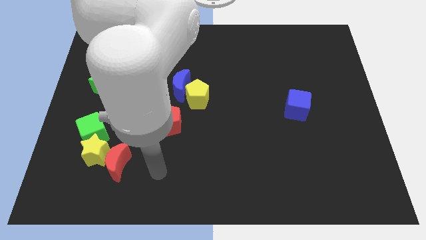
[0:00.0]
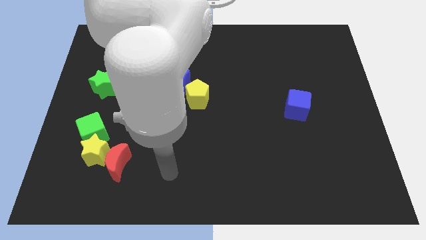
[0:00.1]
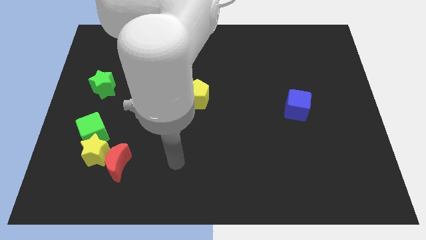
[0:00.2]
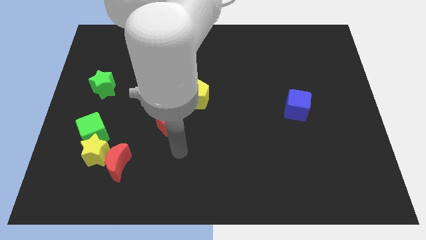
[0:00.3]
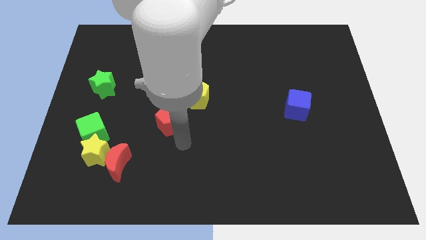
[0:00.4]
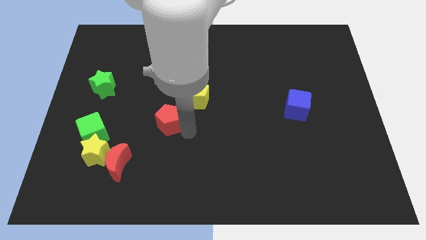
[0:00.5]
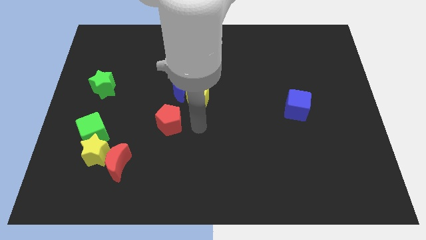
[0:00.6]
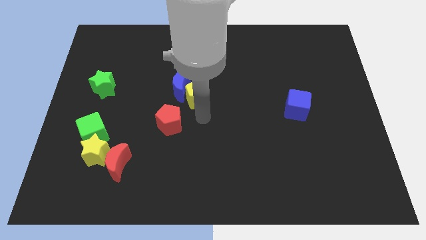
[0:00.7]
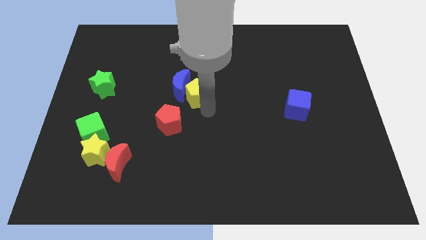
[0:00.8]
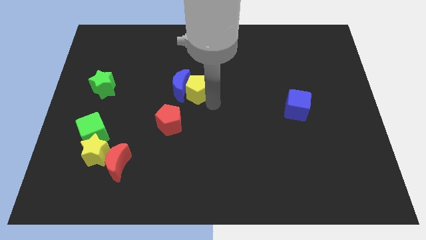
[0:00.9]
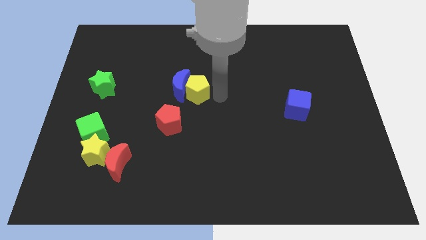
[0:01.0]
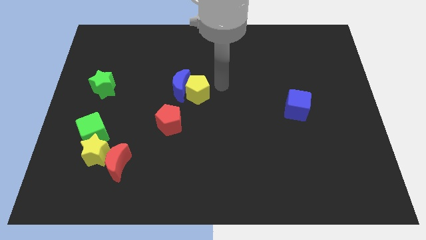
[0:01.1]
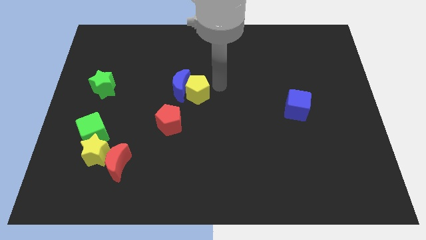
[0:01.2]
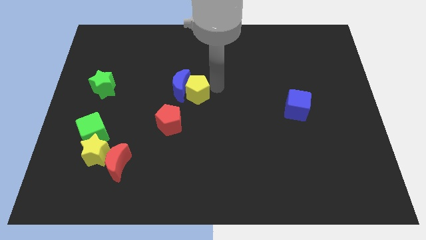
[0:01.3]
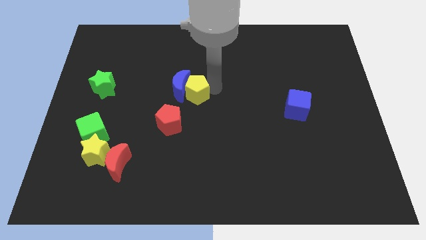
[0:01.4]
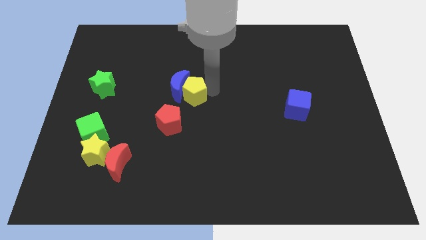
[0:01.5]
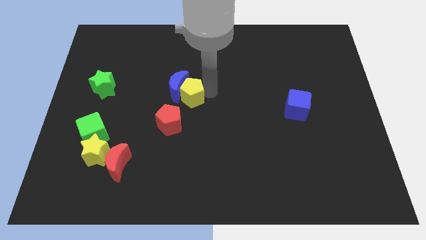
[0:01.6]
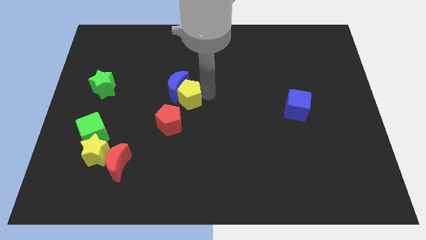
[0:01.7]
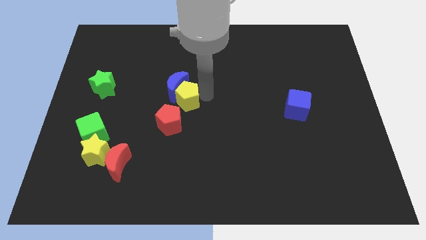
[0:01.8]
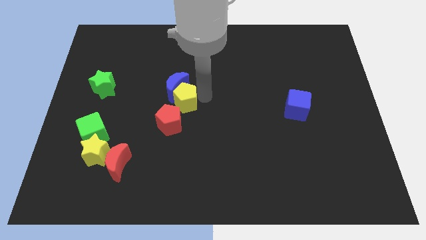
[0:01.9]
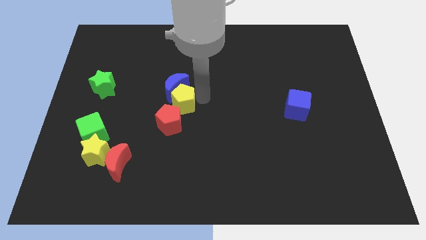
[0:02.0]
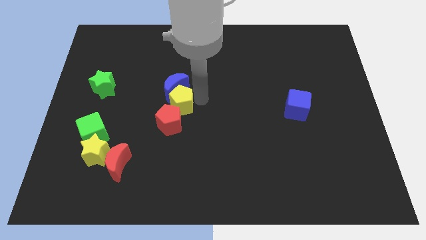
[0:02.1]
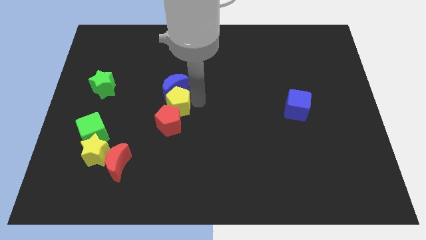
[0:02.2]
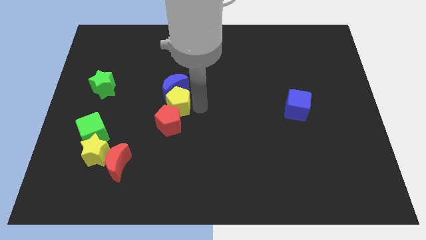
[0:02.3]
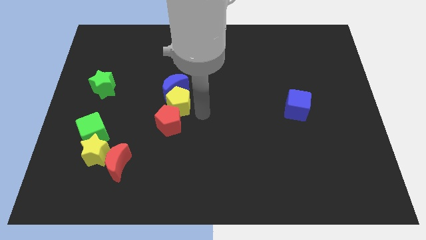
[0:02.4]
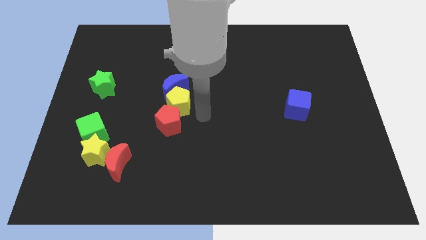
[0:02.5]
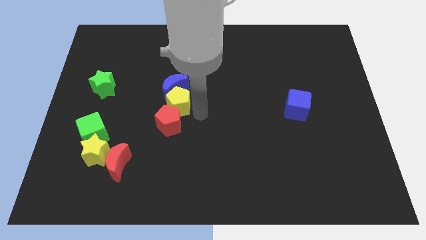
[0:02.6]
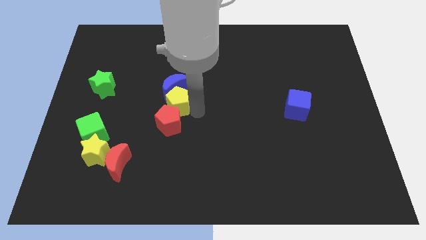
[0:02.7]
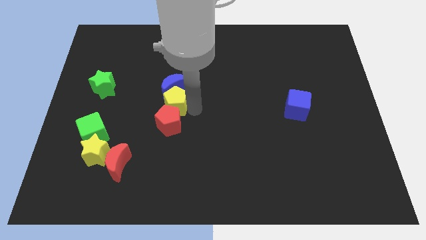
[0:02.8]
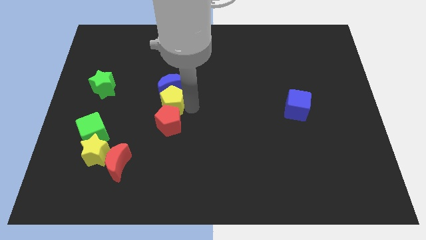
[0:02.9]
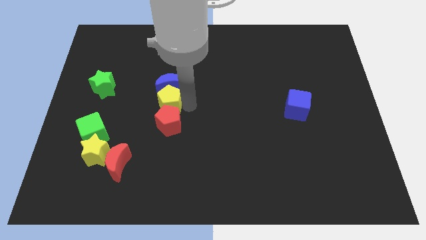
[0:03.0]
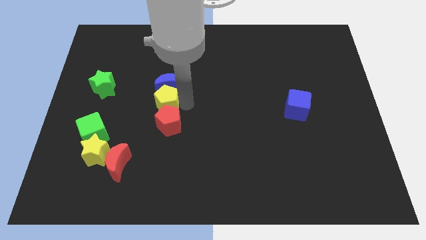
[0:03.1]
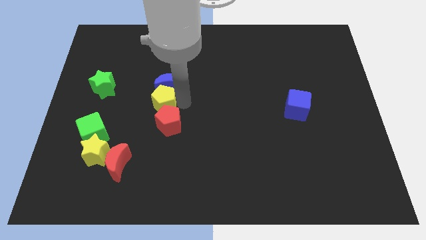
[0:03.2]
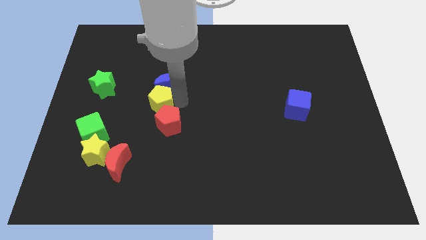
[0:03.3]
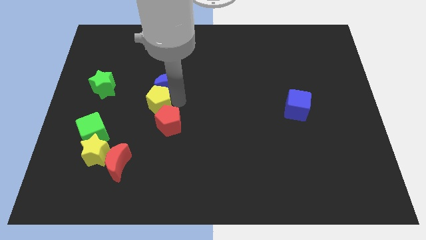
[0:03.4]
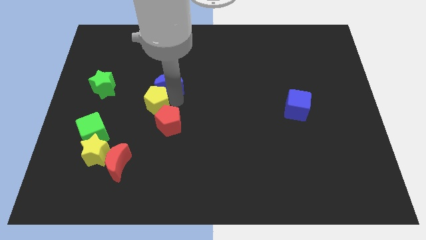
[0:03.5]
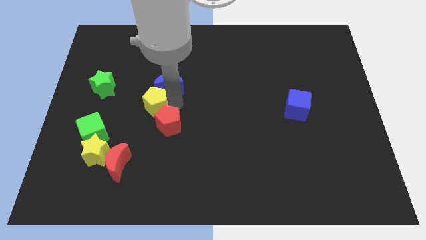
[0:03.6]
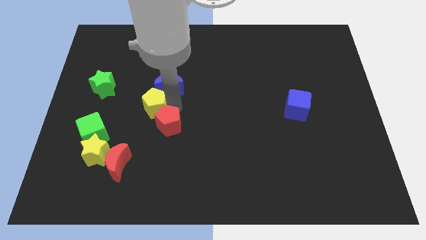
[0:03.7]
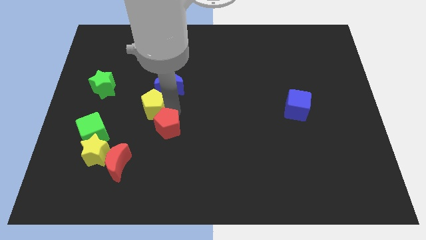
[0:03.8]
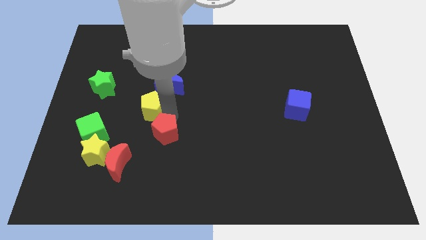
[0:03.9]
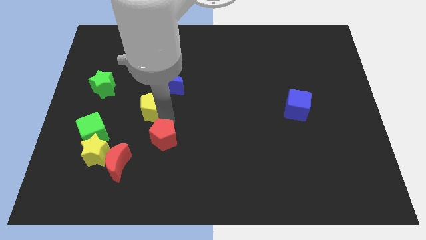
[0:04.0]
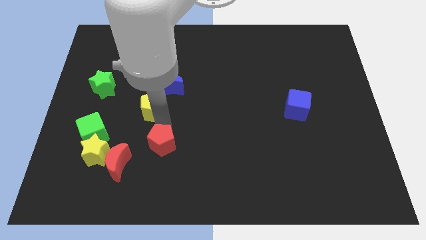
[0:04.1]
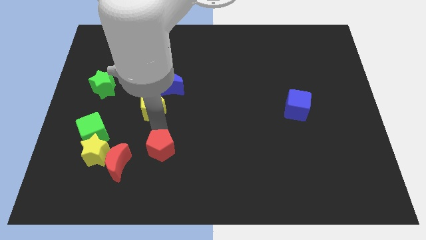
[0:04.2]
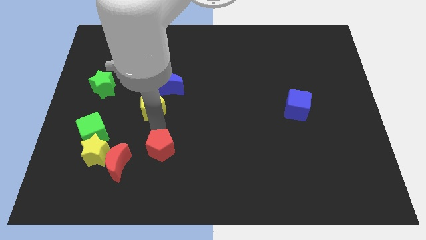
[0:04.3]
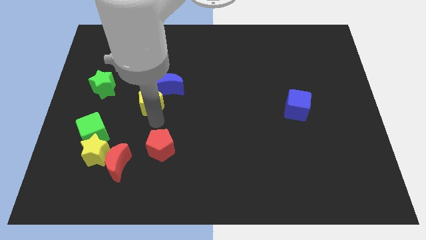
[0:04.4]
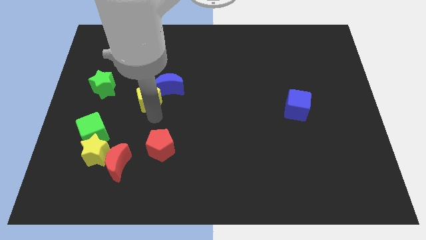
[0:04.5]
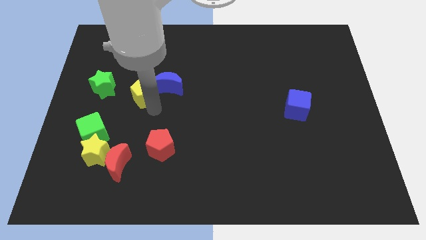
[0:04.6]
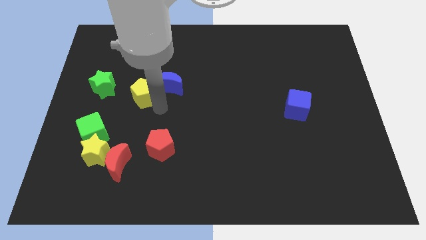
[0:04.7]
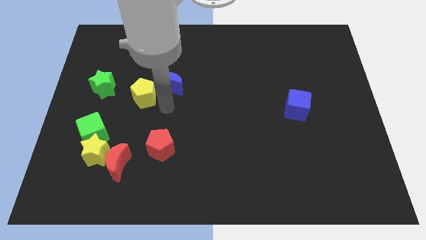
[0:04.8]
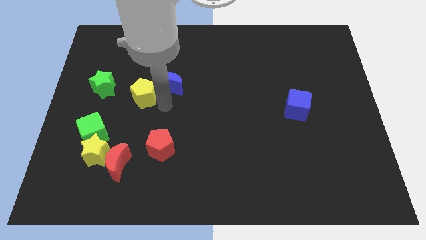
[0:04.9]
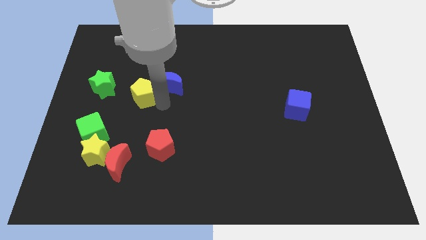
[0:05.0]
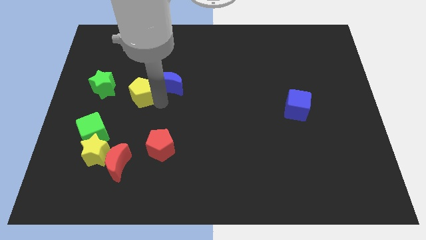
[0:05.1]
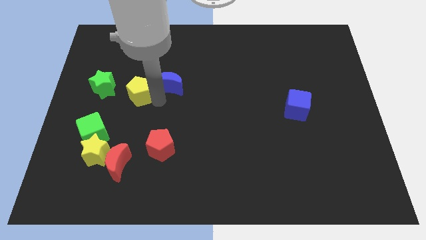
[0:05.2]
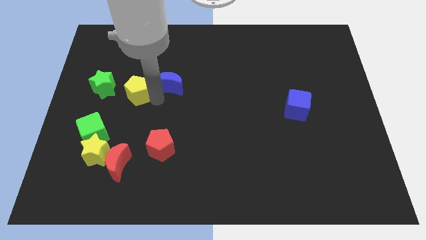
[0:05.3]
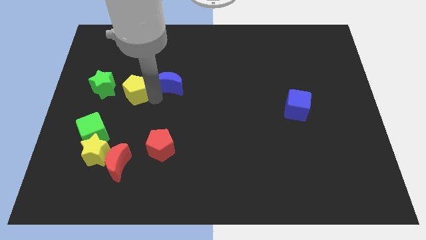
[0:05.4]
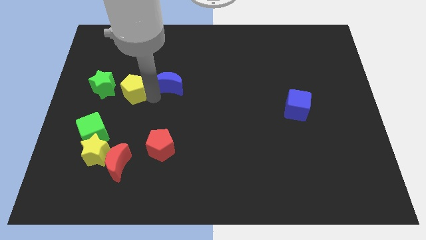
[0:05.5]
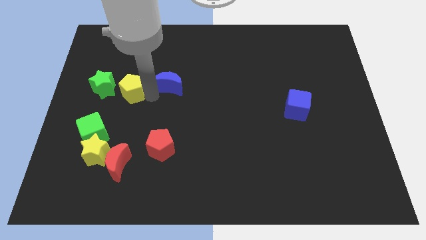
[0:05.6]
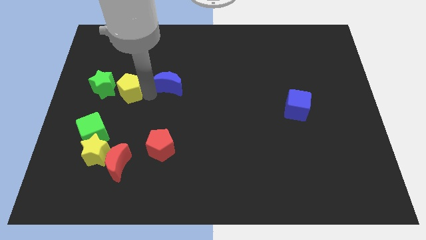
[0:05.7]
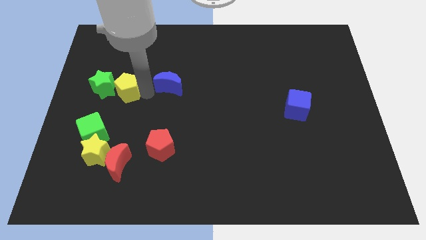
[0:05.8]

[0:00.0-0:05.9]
slide the yellow pentagon towards the green star

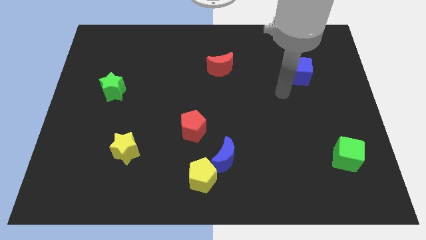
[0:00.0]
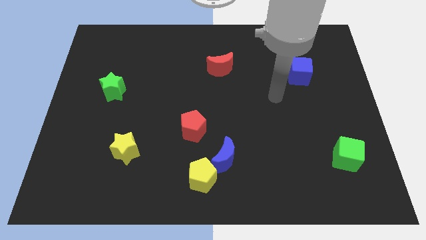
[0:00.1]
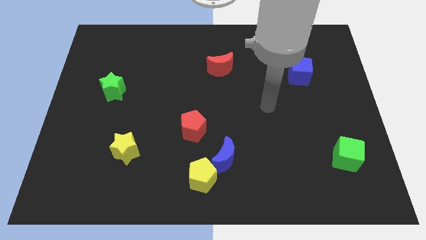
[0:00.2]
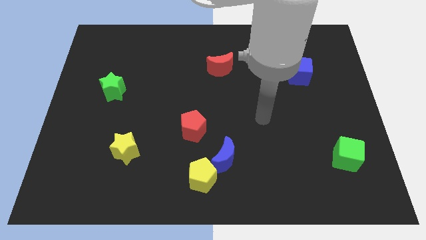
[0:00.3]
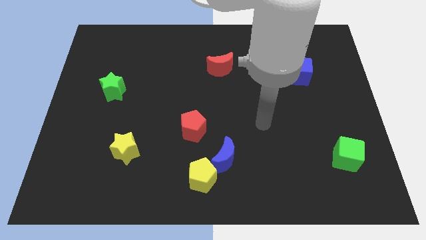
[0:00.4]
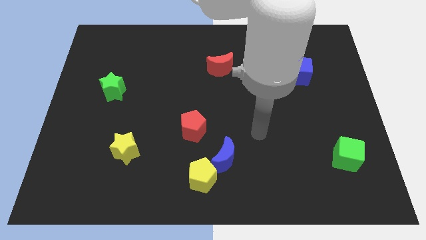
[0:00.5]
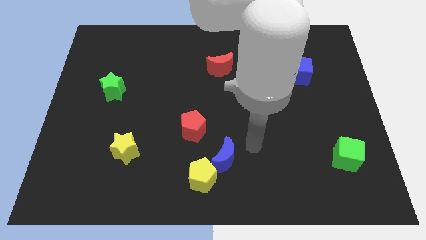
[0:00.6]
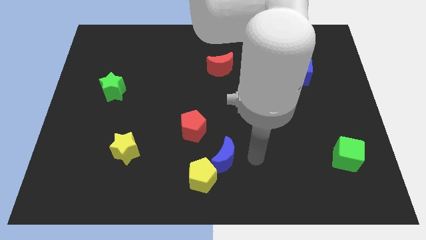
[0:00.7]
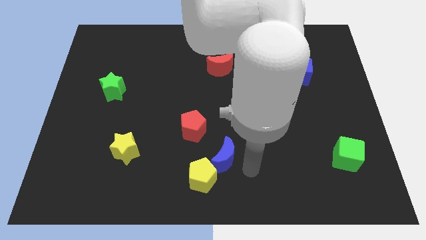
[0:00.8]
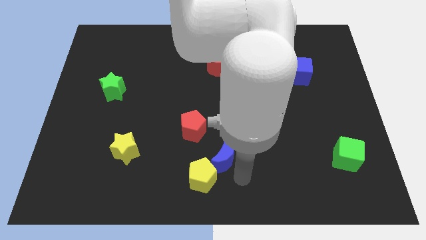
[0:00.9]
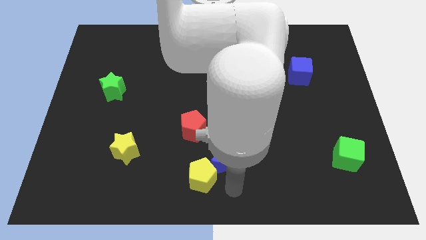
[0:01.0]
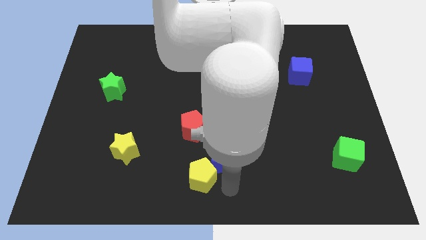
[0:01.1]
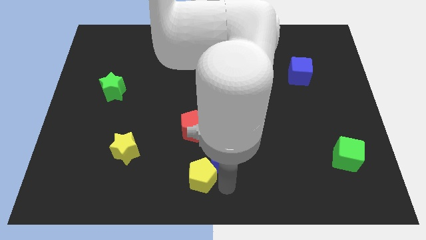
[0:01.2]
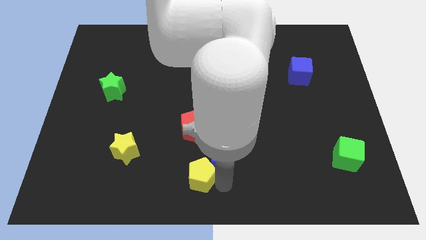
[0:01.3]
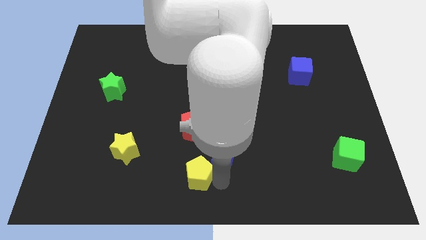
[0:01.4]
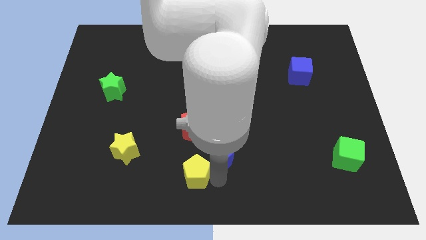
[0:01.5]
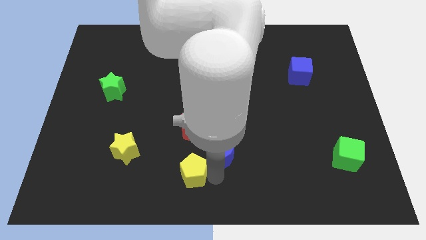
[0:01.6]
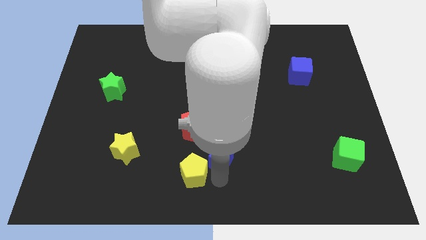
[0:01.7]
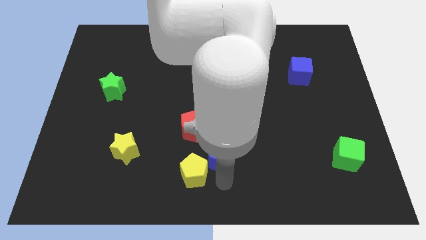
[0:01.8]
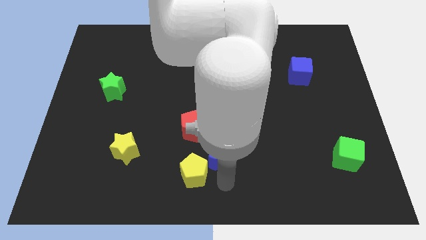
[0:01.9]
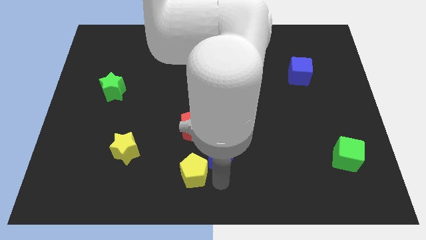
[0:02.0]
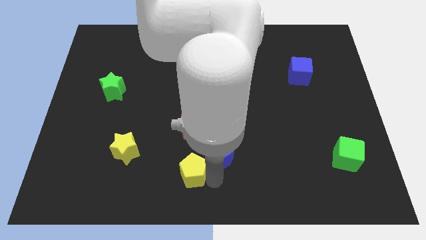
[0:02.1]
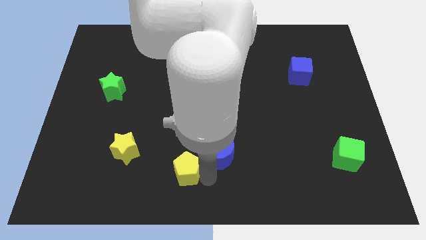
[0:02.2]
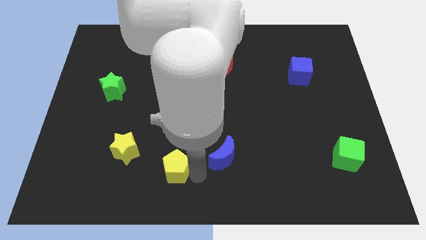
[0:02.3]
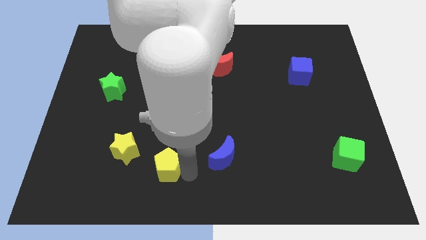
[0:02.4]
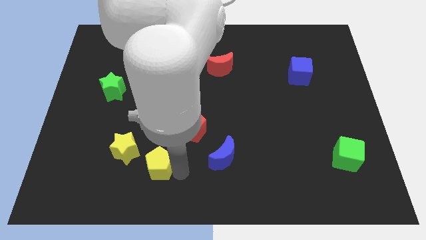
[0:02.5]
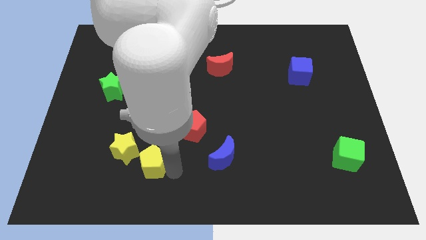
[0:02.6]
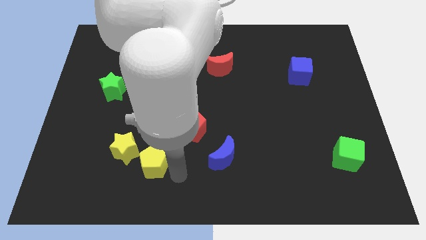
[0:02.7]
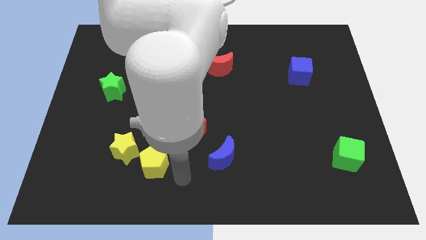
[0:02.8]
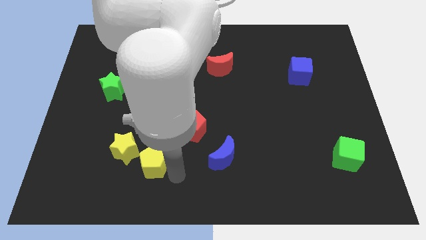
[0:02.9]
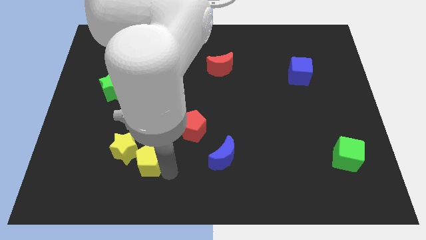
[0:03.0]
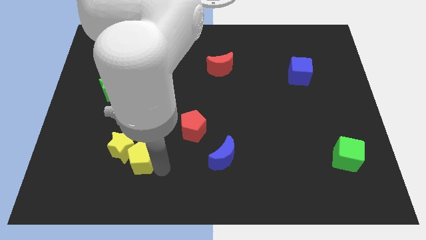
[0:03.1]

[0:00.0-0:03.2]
push the yellow pentagon towards the yellow star
